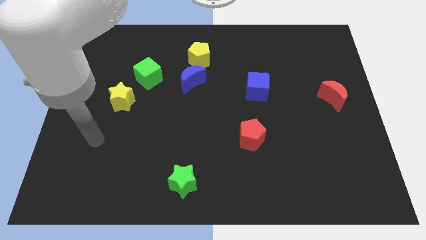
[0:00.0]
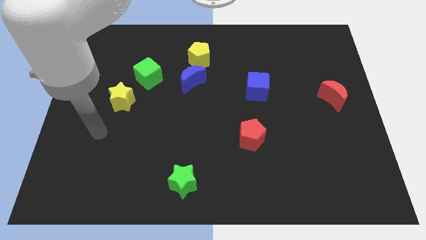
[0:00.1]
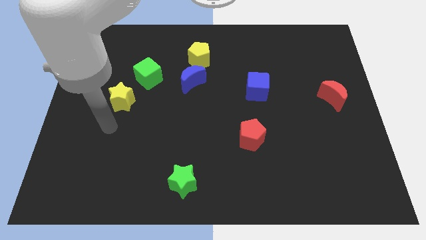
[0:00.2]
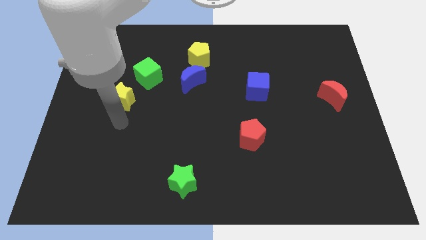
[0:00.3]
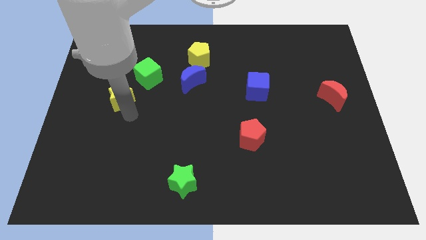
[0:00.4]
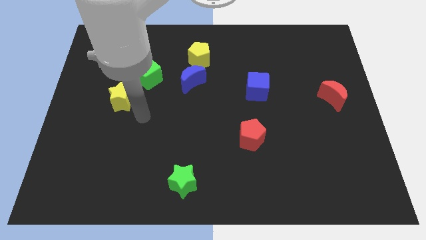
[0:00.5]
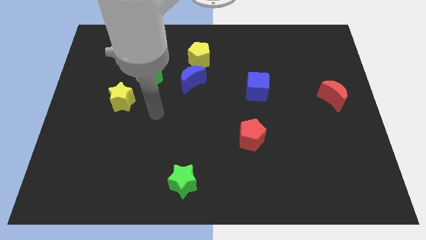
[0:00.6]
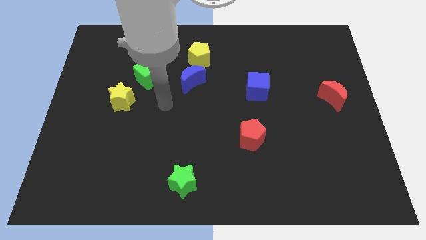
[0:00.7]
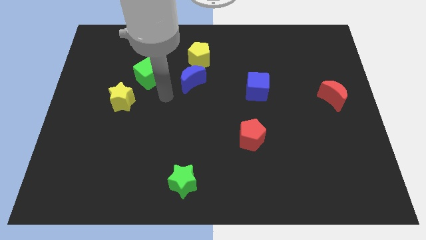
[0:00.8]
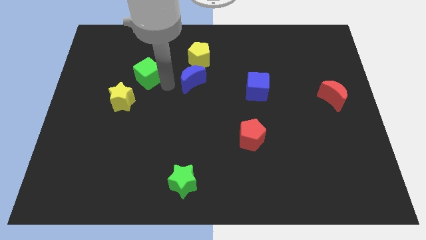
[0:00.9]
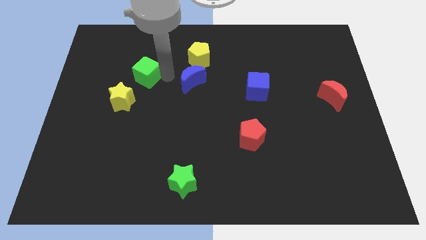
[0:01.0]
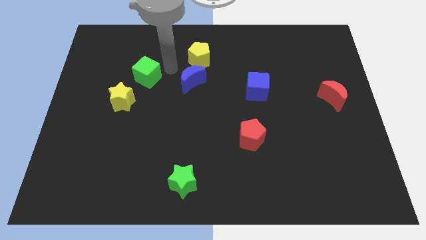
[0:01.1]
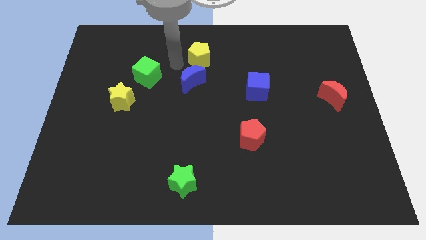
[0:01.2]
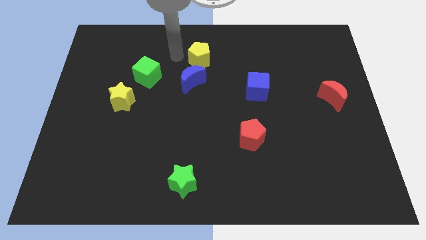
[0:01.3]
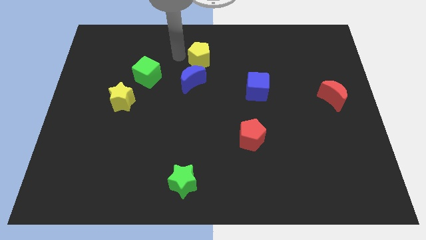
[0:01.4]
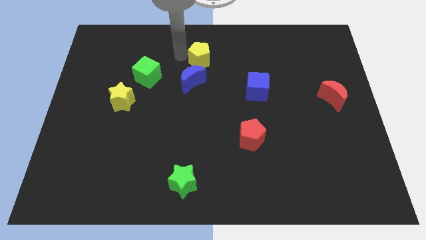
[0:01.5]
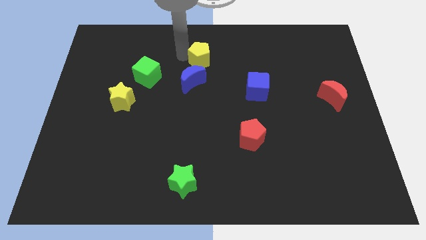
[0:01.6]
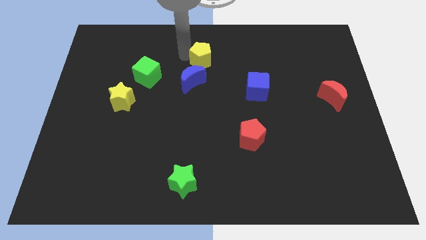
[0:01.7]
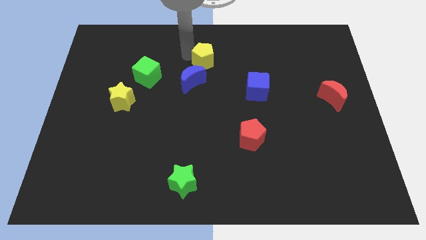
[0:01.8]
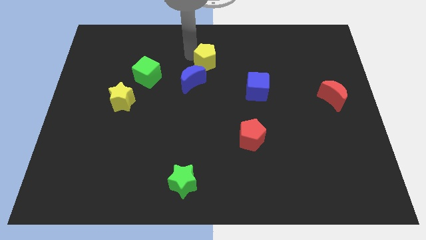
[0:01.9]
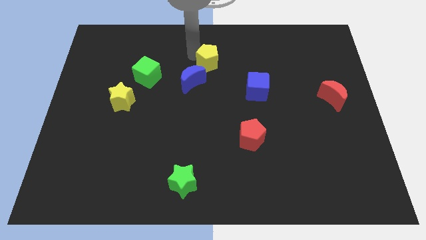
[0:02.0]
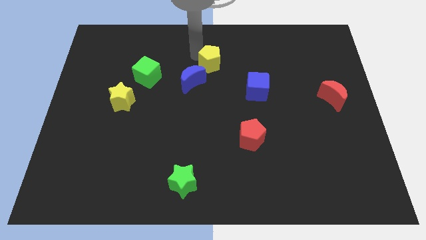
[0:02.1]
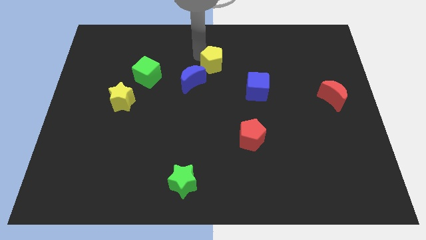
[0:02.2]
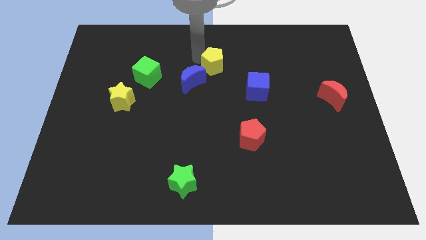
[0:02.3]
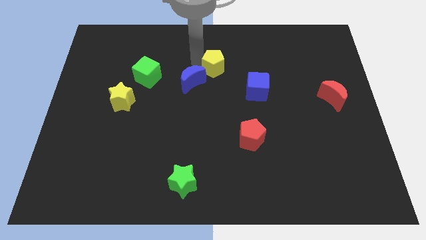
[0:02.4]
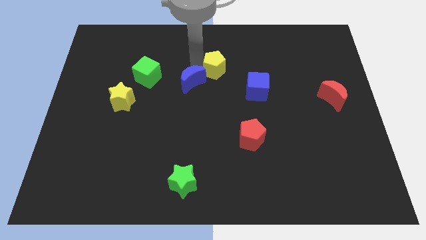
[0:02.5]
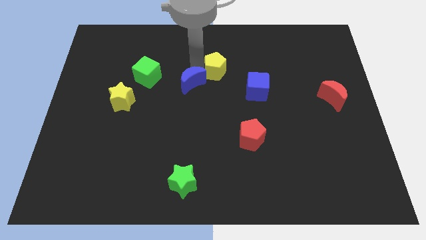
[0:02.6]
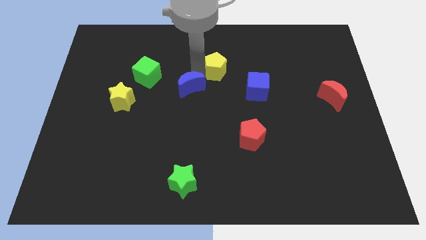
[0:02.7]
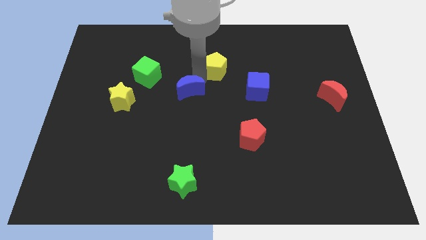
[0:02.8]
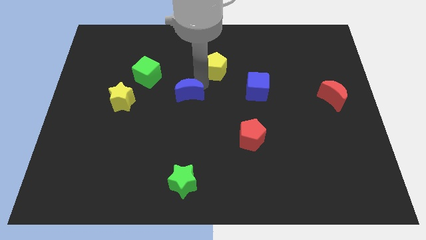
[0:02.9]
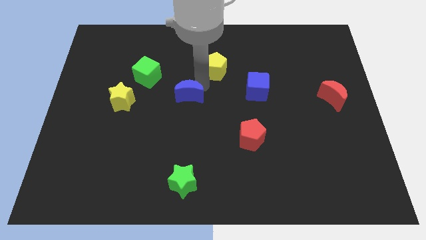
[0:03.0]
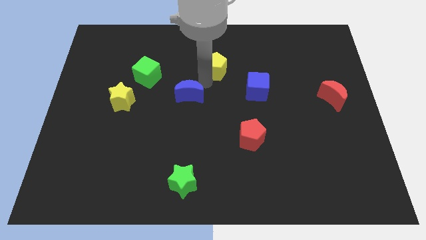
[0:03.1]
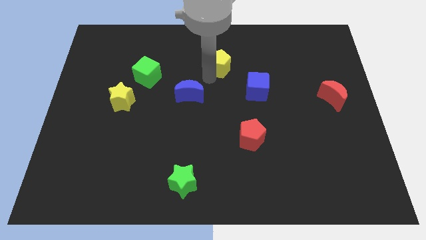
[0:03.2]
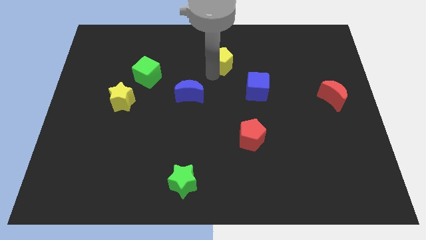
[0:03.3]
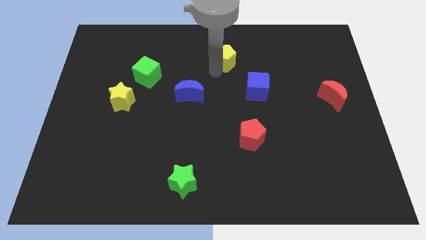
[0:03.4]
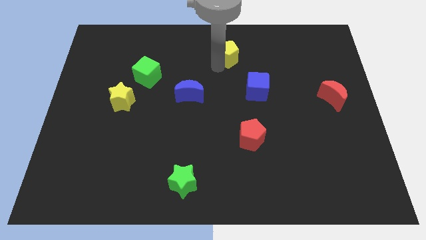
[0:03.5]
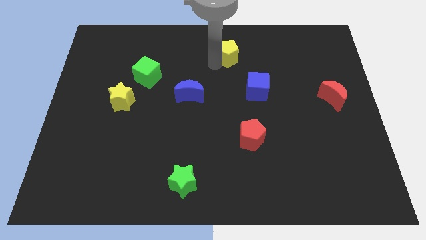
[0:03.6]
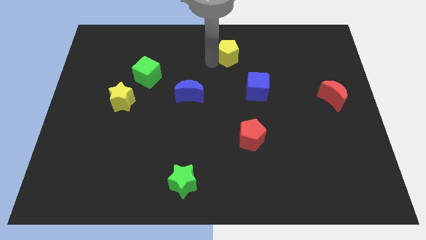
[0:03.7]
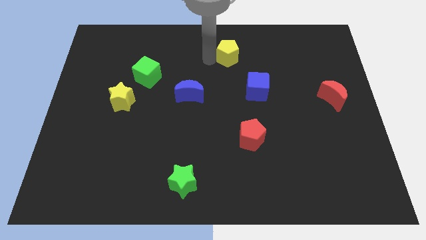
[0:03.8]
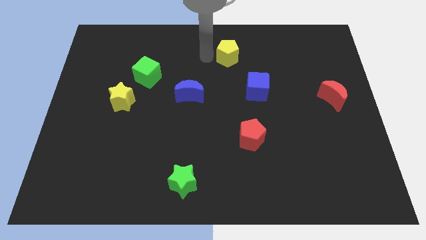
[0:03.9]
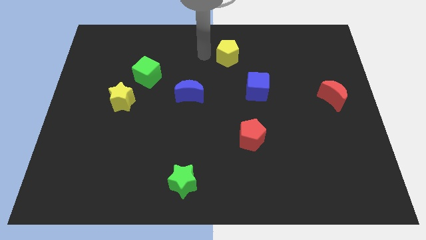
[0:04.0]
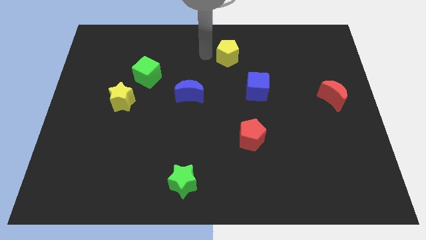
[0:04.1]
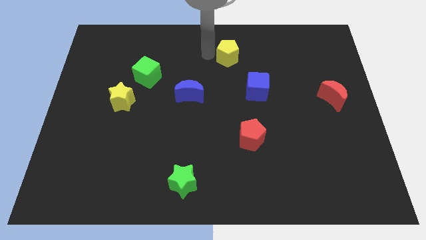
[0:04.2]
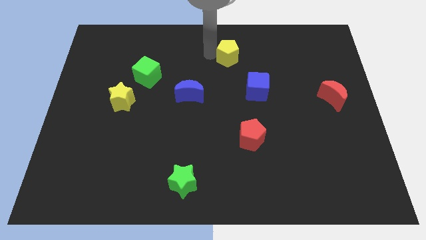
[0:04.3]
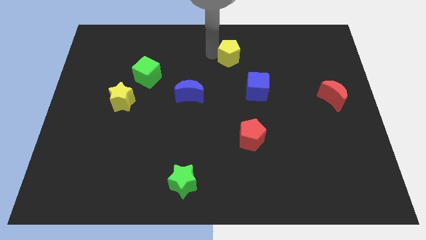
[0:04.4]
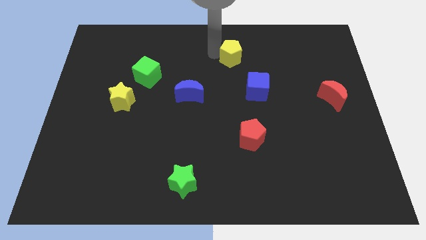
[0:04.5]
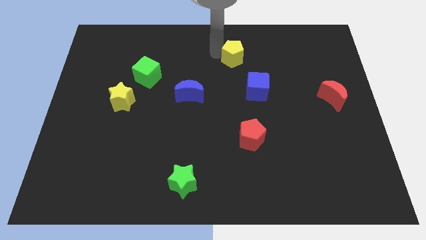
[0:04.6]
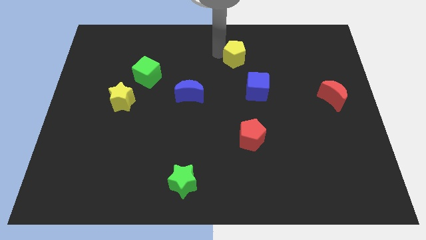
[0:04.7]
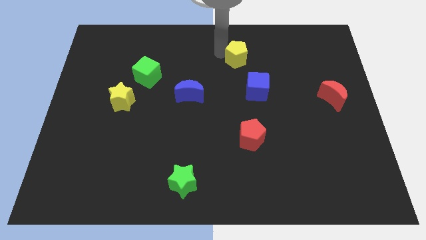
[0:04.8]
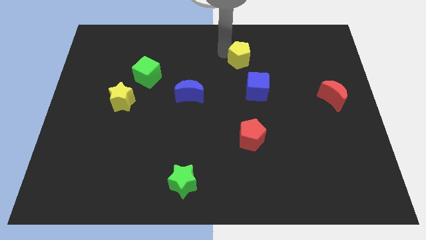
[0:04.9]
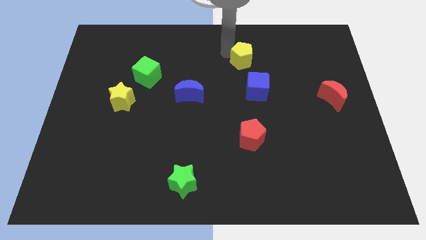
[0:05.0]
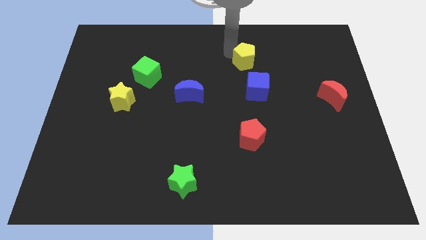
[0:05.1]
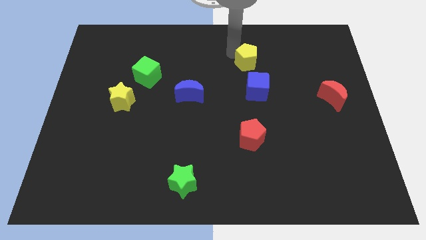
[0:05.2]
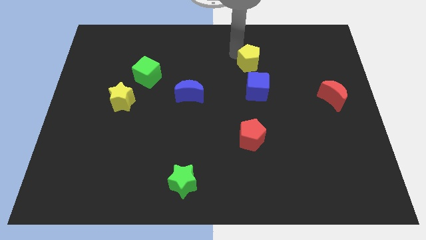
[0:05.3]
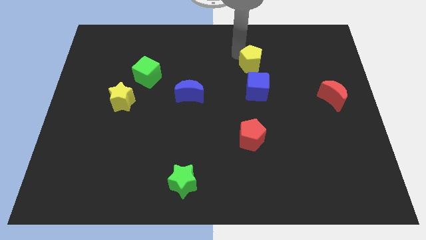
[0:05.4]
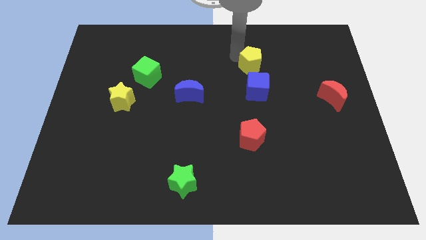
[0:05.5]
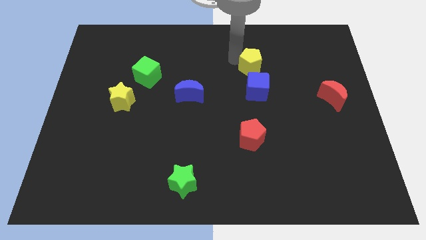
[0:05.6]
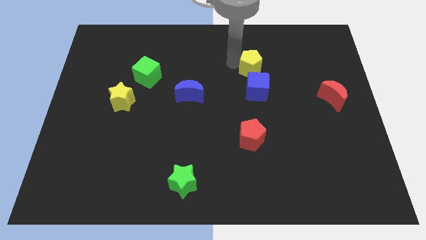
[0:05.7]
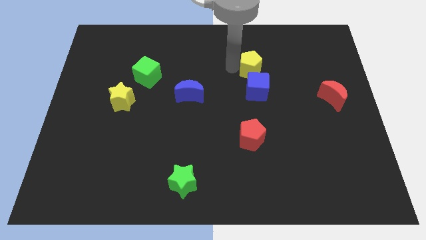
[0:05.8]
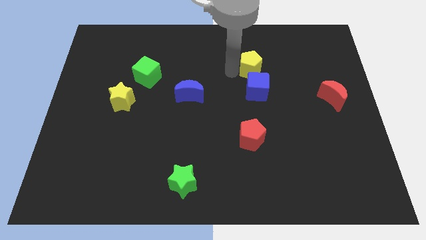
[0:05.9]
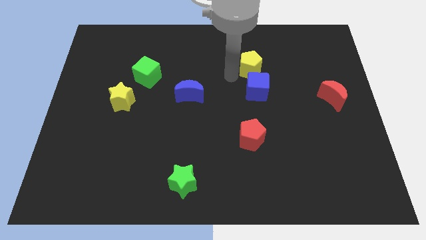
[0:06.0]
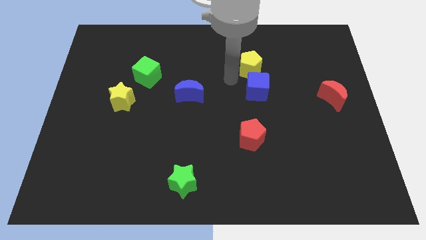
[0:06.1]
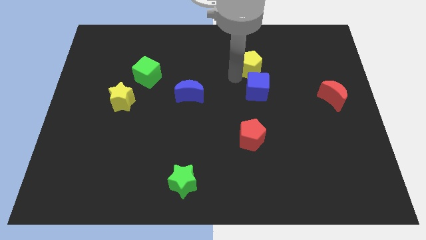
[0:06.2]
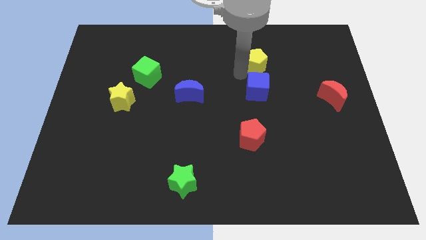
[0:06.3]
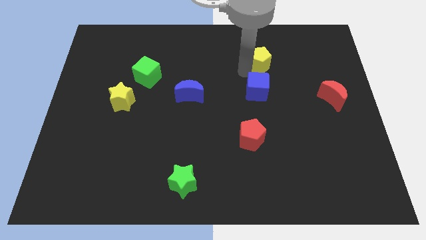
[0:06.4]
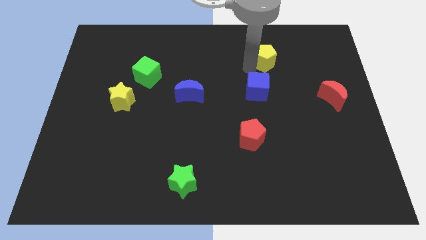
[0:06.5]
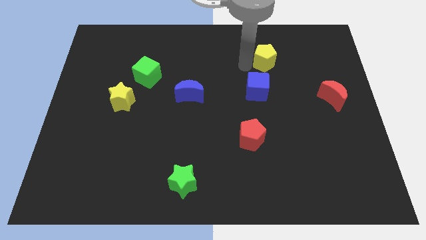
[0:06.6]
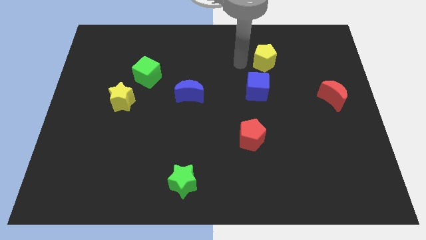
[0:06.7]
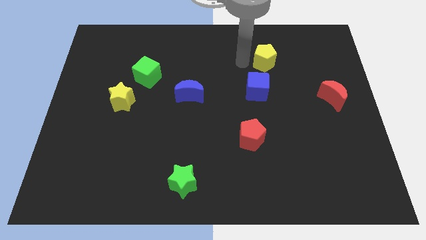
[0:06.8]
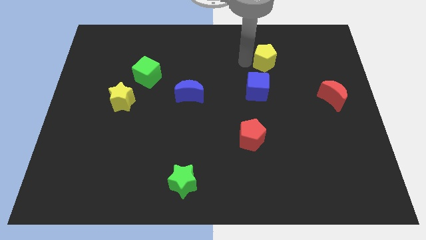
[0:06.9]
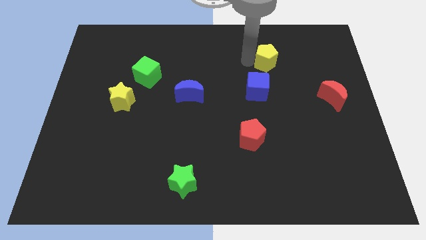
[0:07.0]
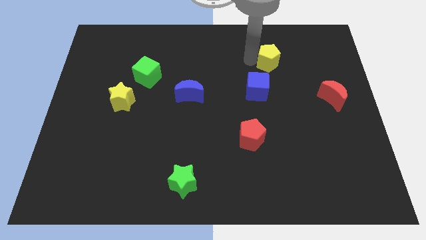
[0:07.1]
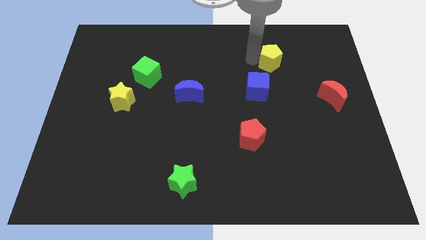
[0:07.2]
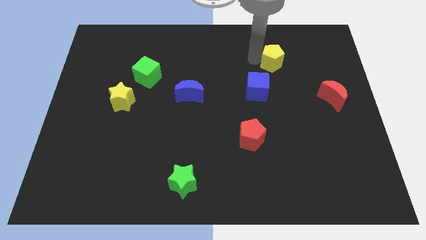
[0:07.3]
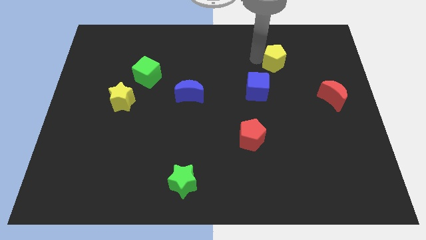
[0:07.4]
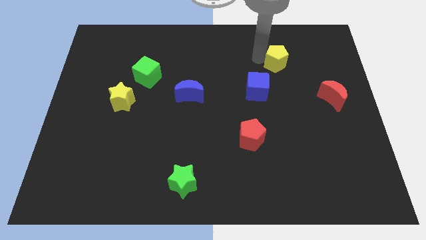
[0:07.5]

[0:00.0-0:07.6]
slide the yellow pentagon to the right

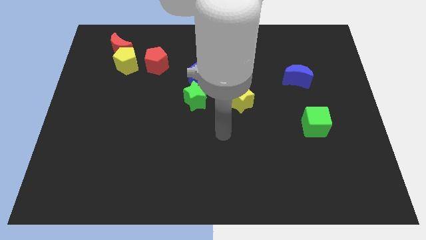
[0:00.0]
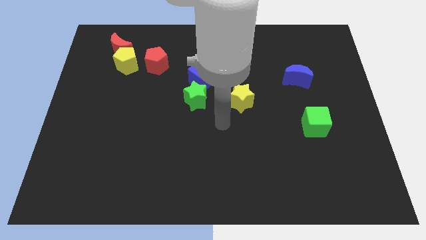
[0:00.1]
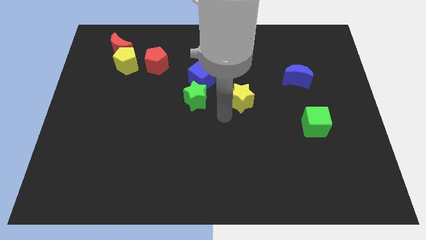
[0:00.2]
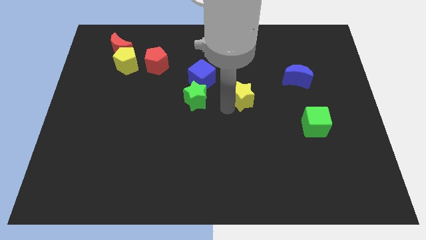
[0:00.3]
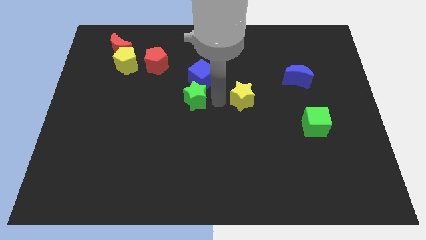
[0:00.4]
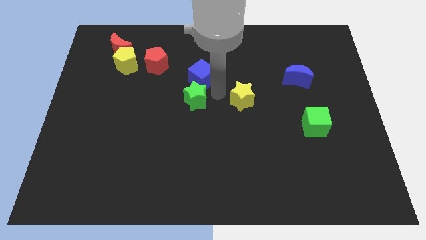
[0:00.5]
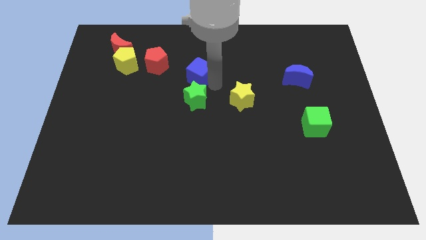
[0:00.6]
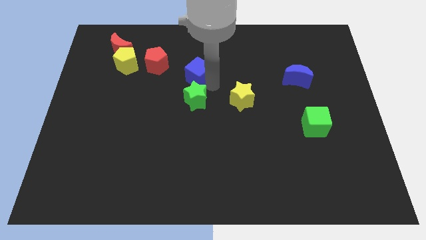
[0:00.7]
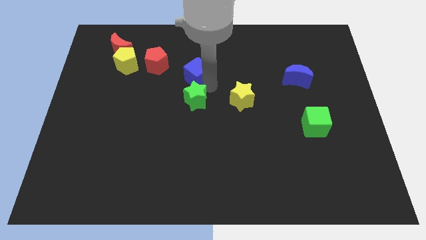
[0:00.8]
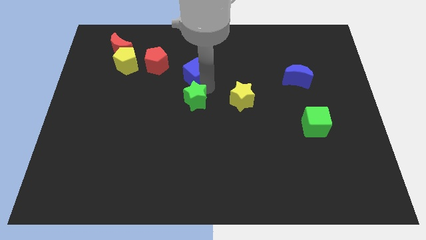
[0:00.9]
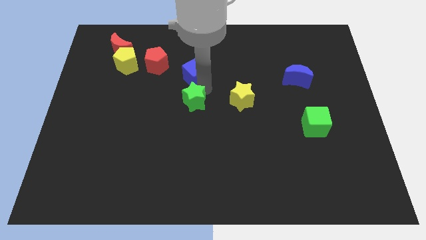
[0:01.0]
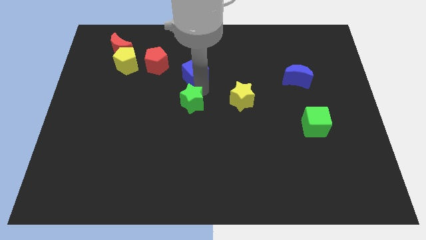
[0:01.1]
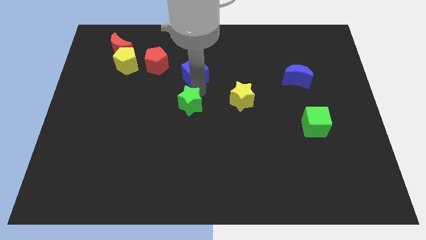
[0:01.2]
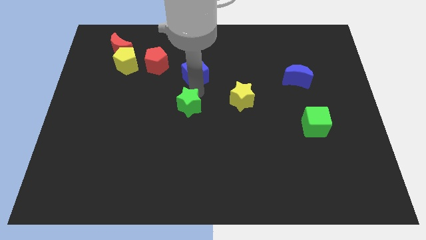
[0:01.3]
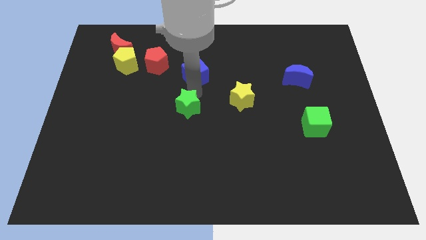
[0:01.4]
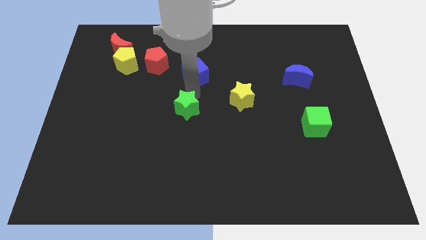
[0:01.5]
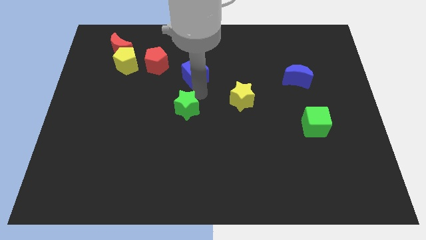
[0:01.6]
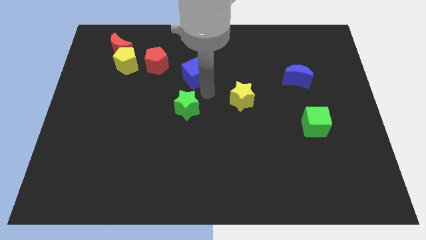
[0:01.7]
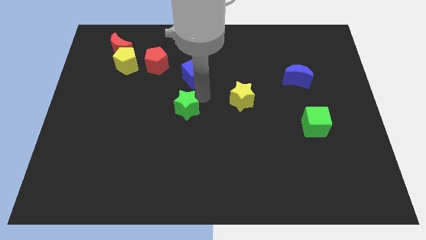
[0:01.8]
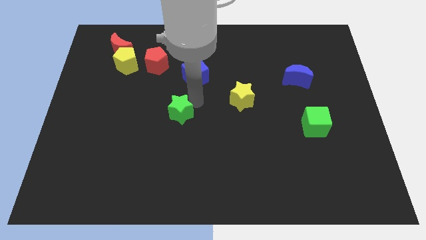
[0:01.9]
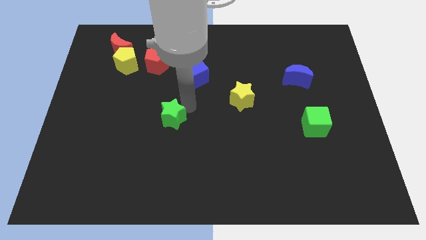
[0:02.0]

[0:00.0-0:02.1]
move the green star downwards and then left slightly
